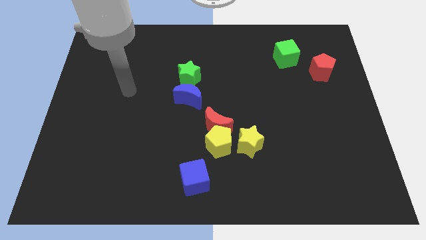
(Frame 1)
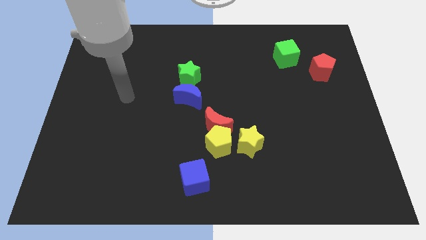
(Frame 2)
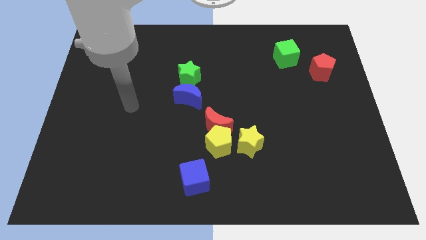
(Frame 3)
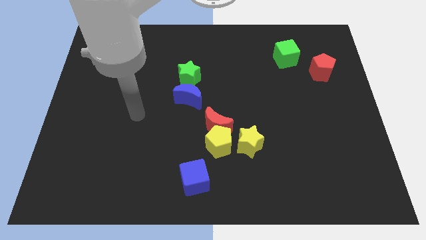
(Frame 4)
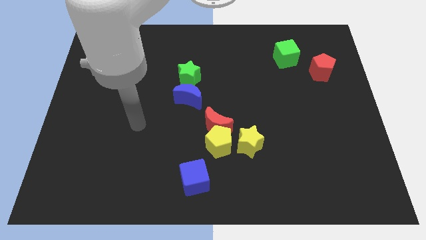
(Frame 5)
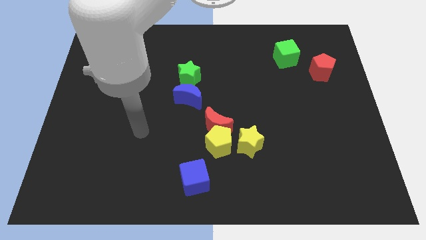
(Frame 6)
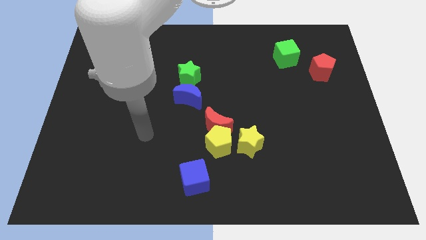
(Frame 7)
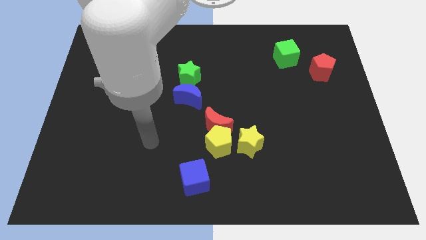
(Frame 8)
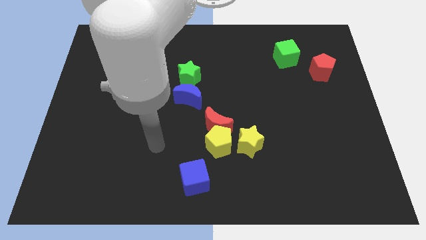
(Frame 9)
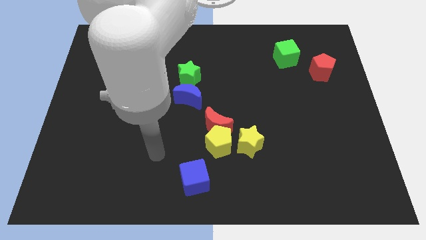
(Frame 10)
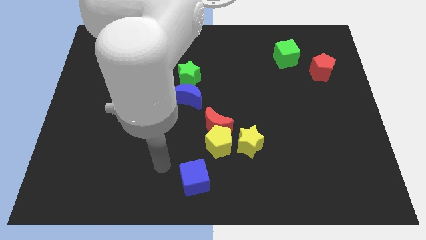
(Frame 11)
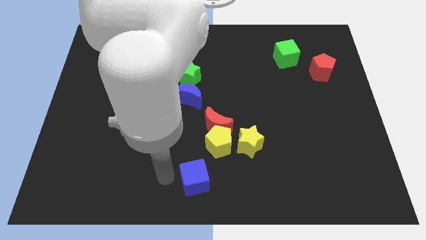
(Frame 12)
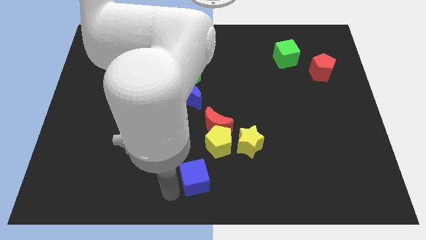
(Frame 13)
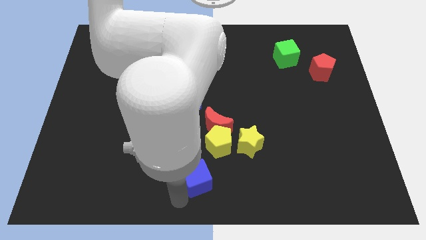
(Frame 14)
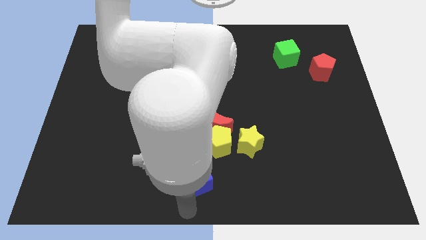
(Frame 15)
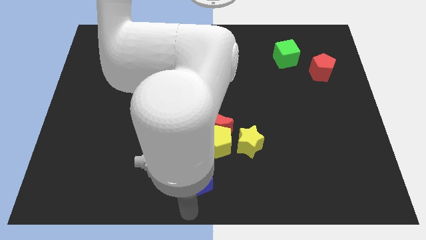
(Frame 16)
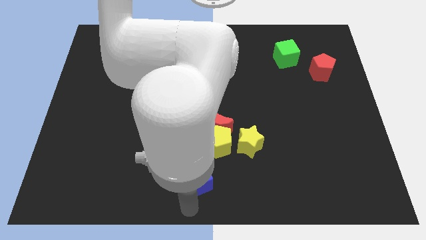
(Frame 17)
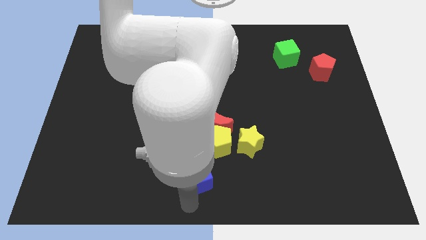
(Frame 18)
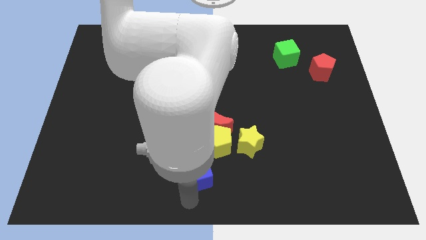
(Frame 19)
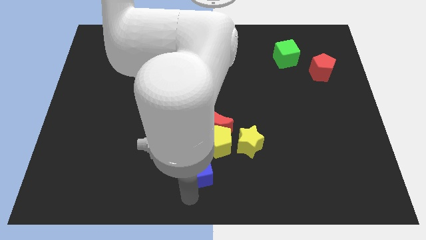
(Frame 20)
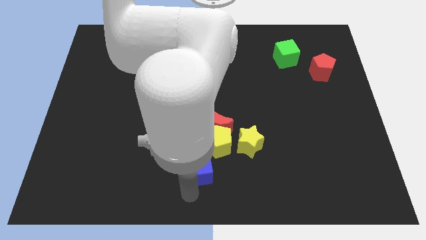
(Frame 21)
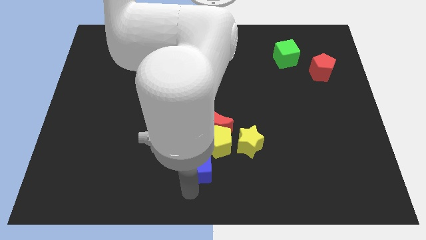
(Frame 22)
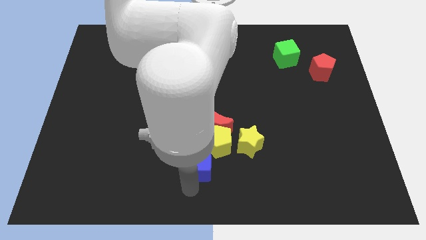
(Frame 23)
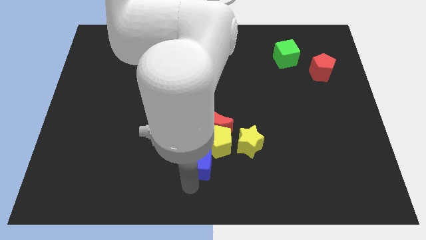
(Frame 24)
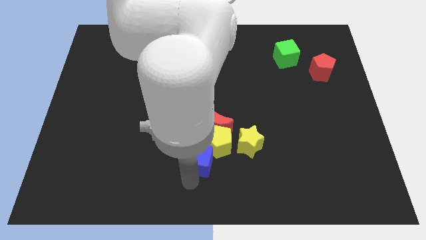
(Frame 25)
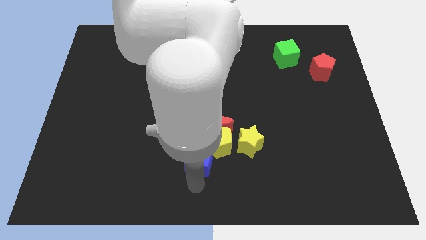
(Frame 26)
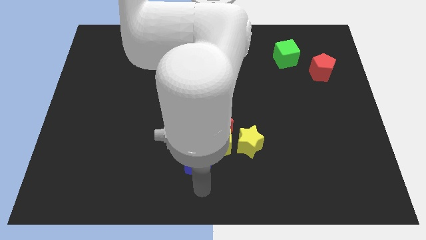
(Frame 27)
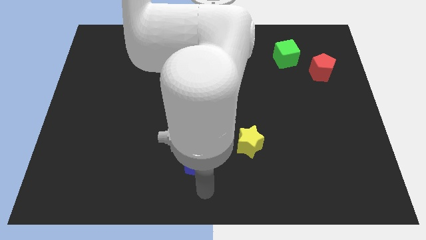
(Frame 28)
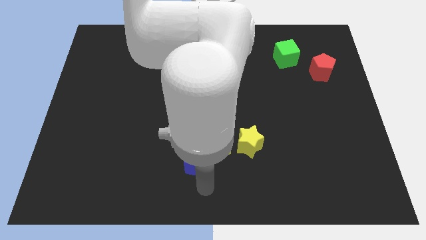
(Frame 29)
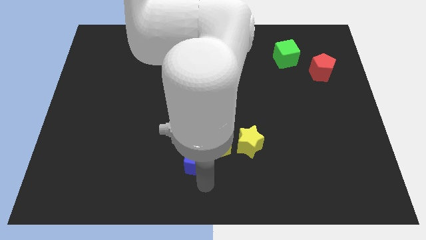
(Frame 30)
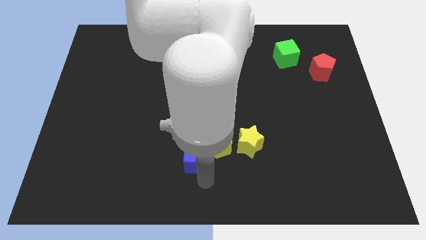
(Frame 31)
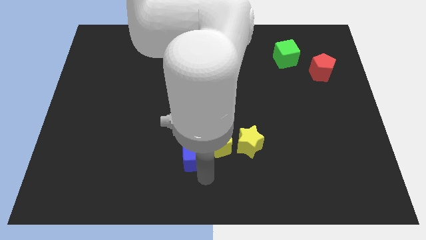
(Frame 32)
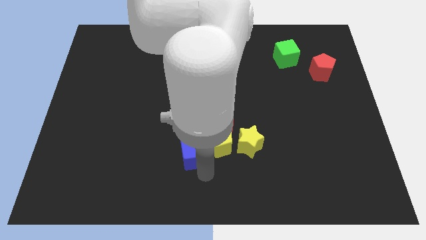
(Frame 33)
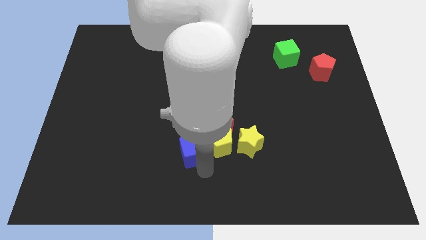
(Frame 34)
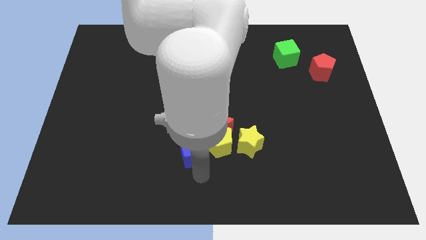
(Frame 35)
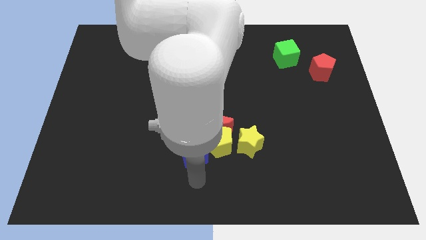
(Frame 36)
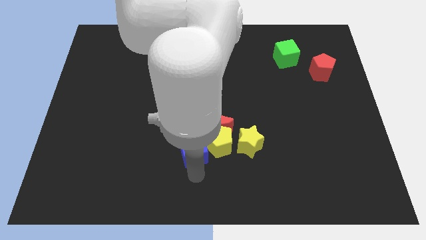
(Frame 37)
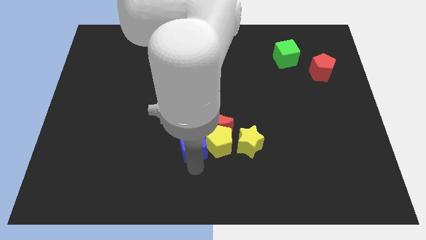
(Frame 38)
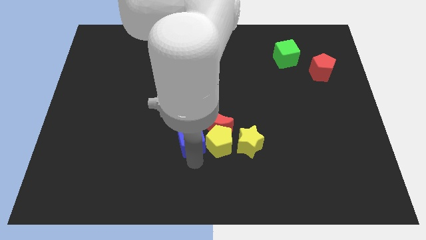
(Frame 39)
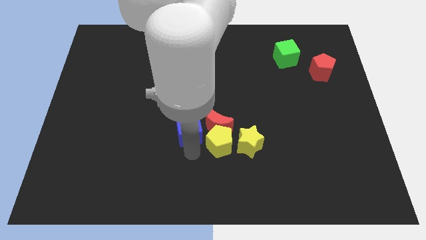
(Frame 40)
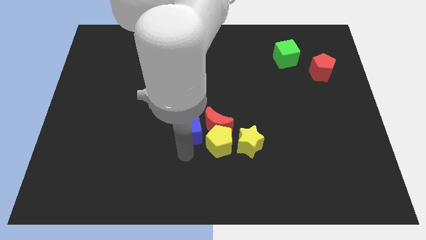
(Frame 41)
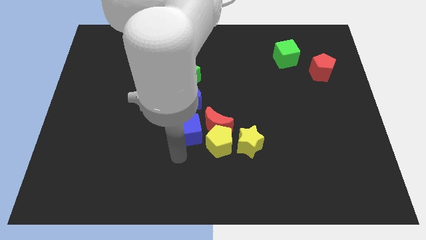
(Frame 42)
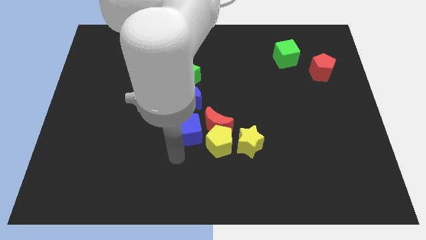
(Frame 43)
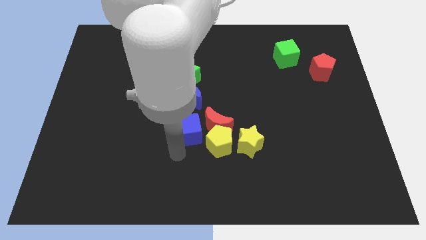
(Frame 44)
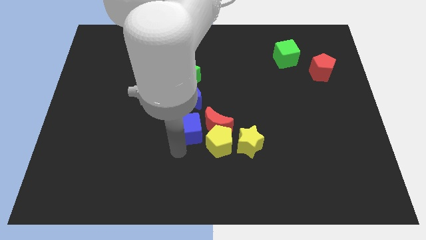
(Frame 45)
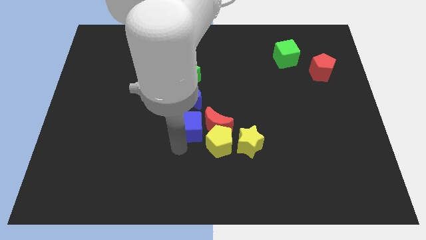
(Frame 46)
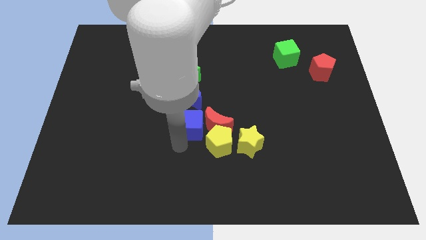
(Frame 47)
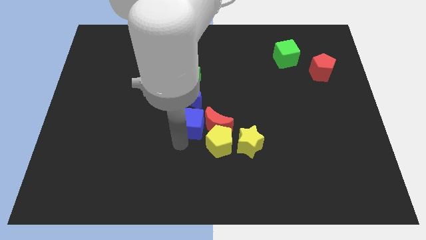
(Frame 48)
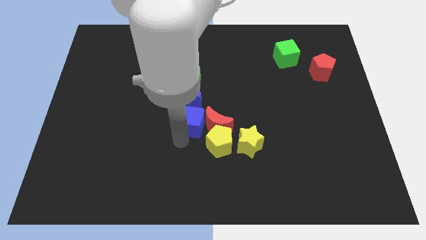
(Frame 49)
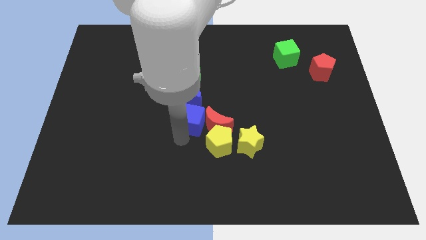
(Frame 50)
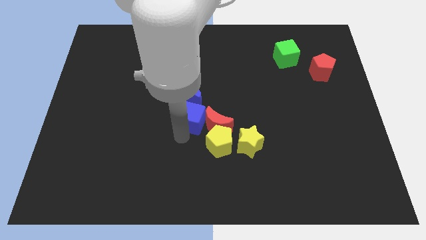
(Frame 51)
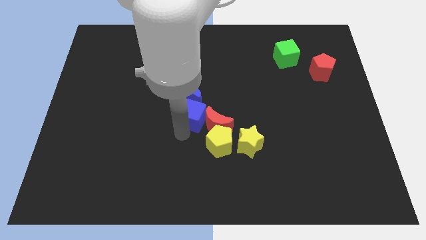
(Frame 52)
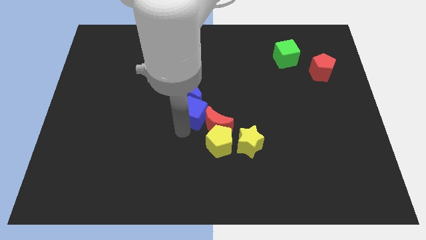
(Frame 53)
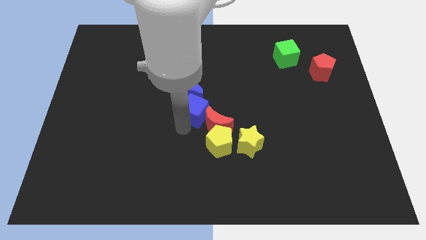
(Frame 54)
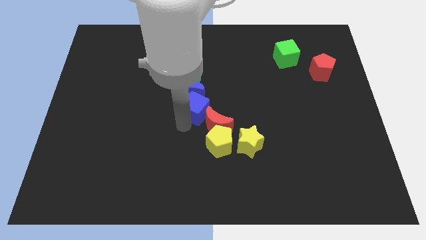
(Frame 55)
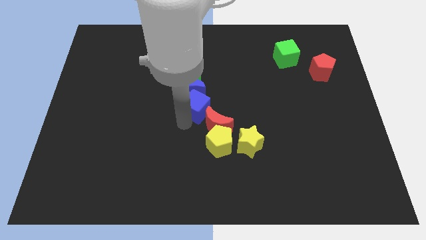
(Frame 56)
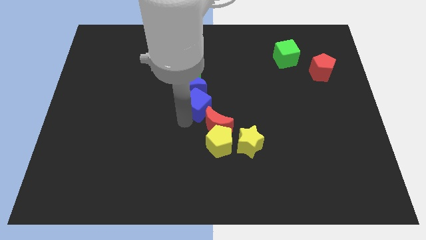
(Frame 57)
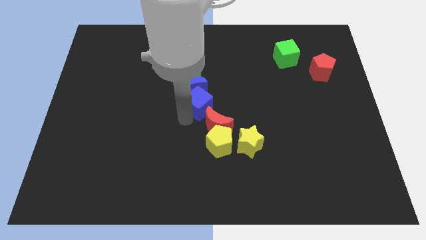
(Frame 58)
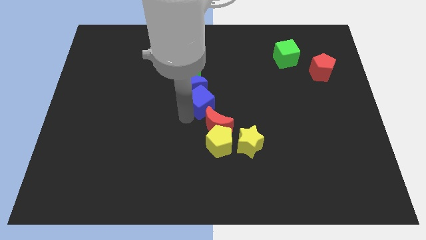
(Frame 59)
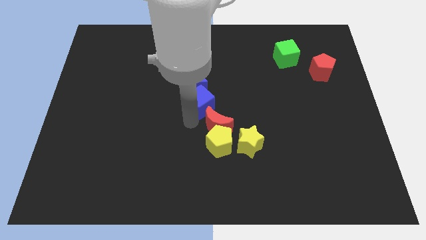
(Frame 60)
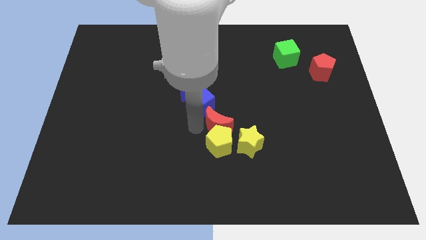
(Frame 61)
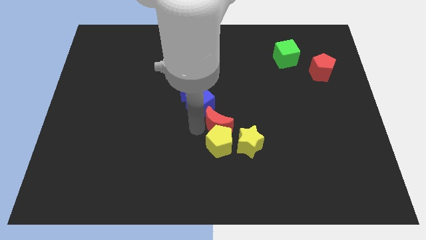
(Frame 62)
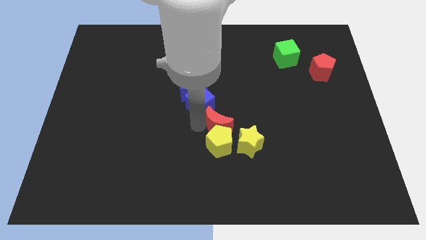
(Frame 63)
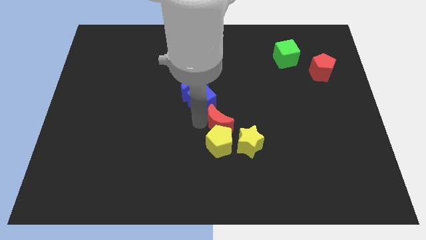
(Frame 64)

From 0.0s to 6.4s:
slide the blue cube up

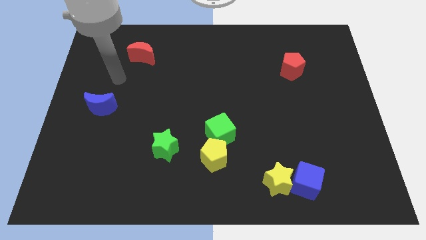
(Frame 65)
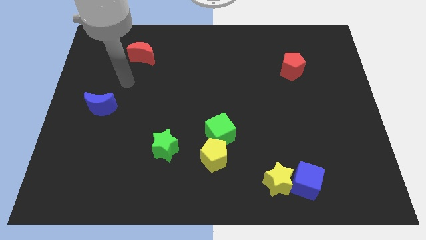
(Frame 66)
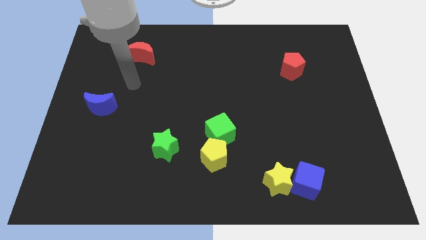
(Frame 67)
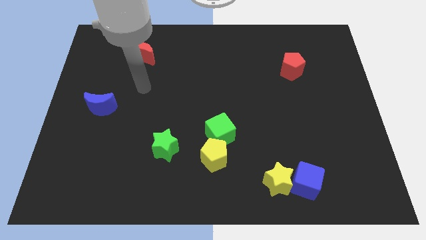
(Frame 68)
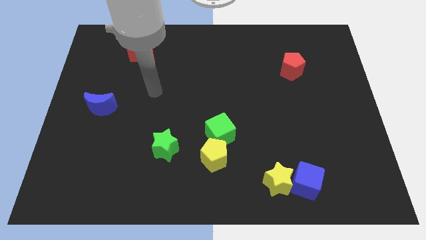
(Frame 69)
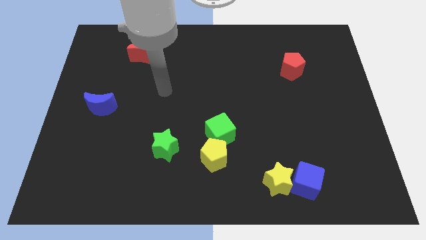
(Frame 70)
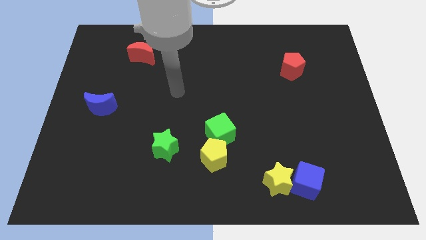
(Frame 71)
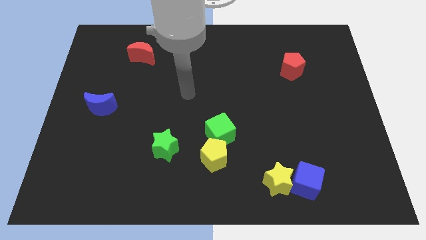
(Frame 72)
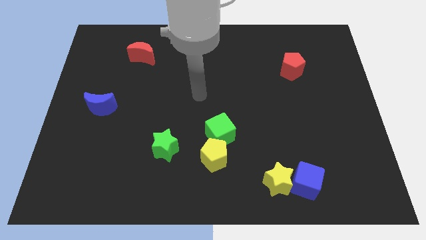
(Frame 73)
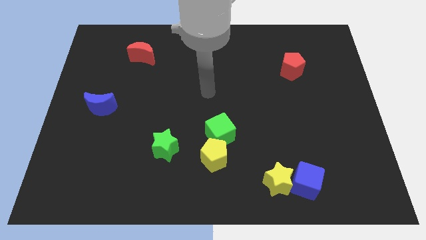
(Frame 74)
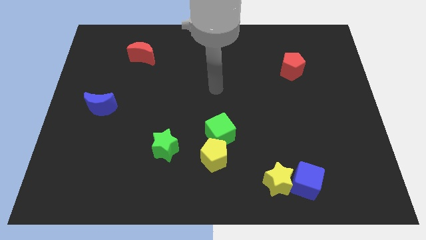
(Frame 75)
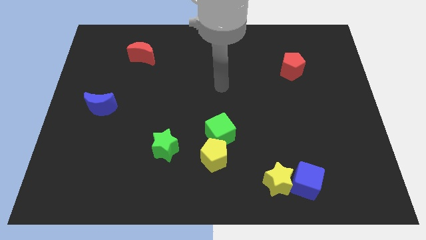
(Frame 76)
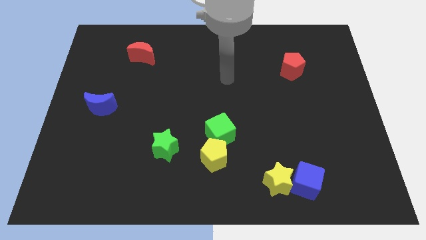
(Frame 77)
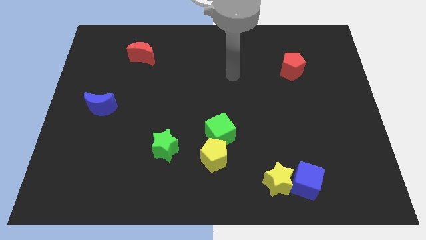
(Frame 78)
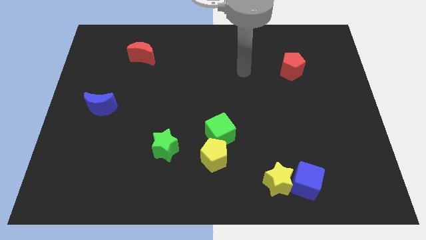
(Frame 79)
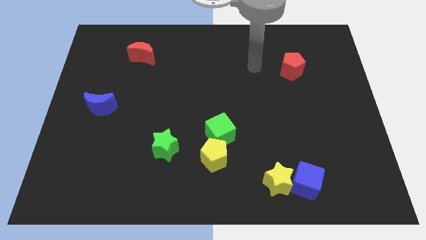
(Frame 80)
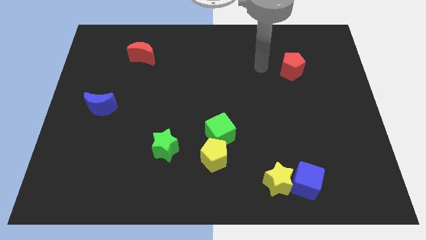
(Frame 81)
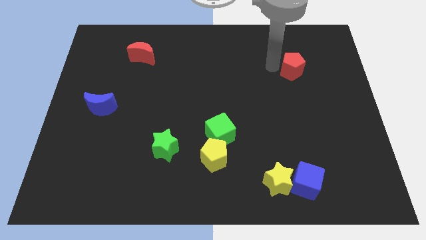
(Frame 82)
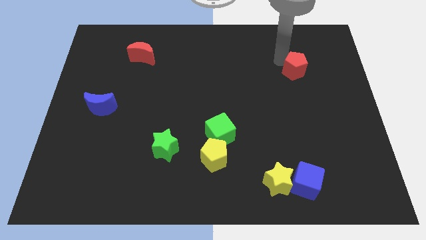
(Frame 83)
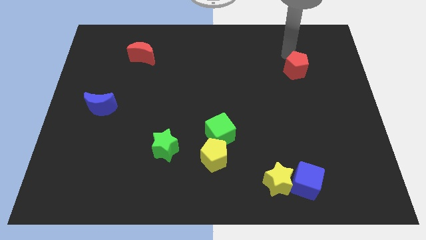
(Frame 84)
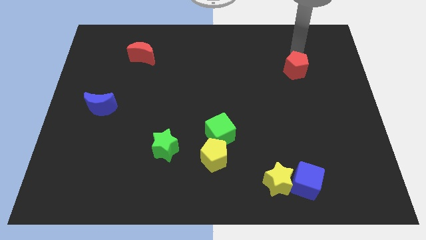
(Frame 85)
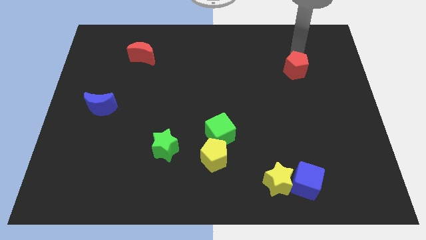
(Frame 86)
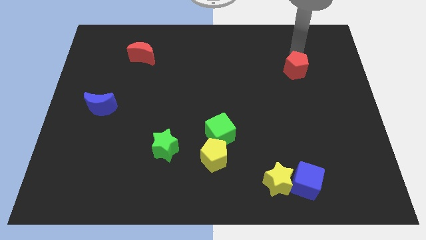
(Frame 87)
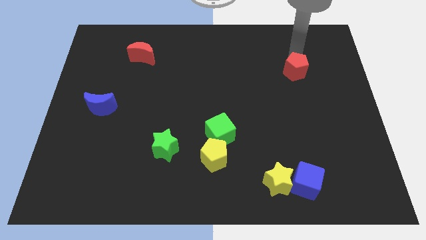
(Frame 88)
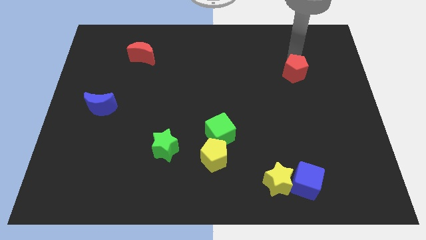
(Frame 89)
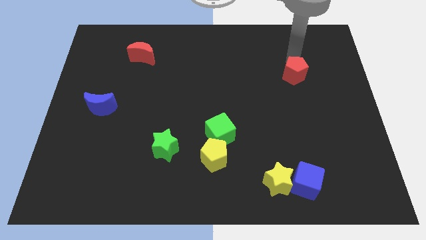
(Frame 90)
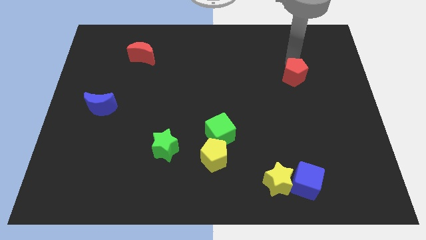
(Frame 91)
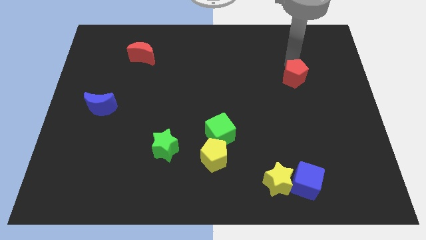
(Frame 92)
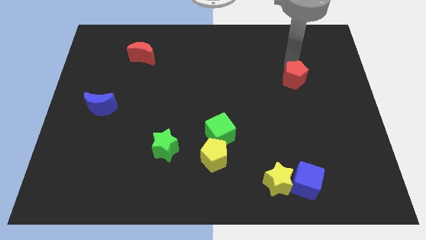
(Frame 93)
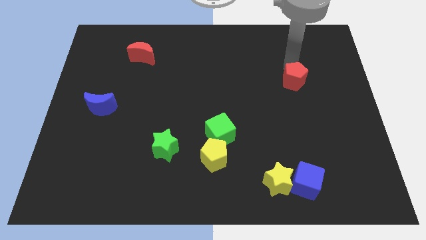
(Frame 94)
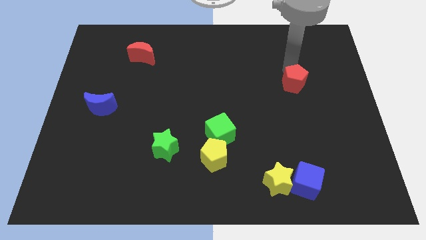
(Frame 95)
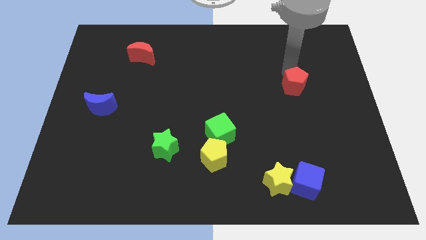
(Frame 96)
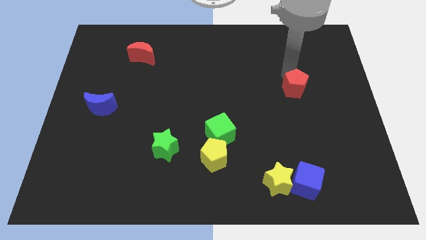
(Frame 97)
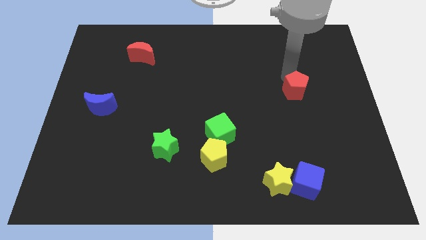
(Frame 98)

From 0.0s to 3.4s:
move the red pentagon downwards somewhat
